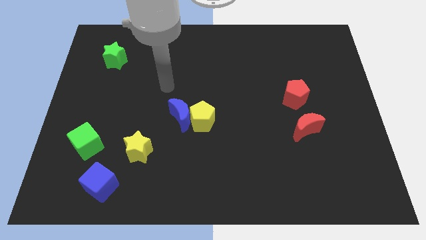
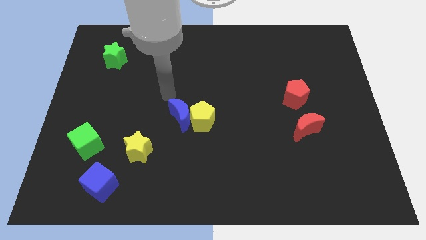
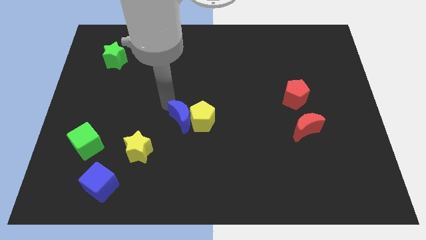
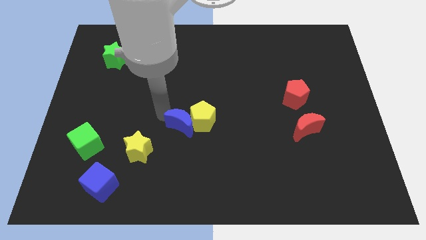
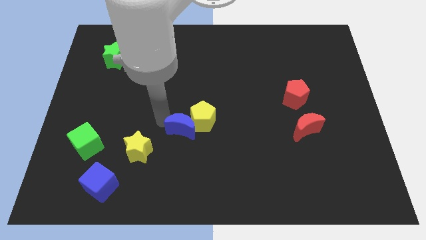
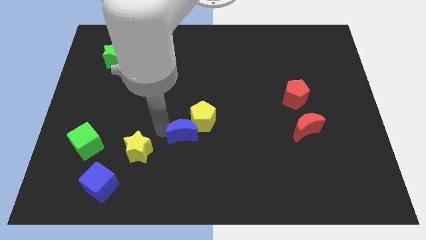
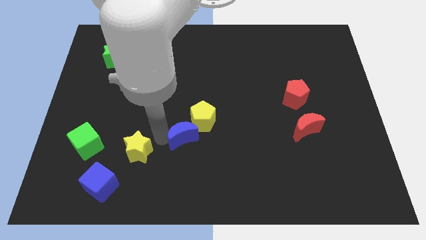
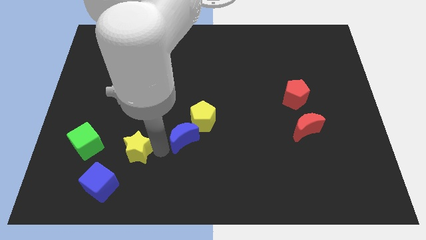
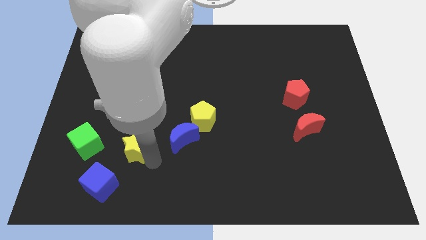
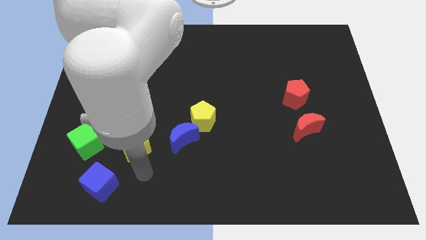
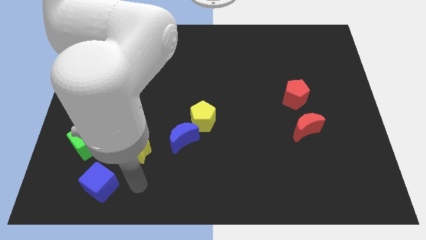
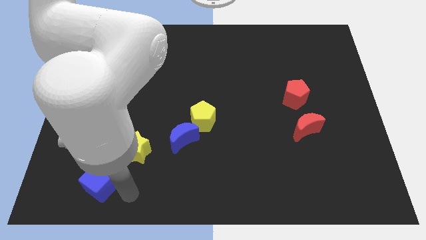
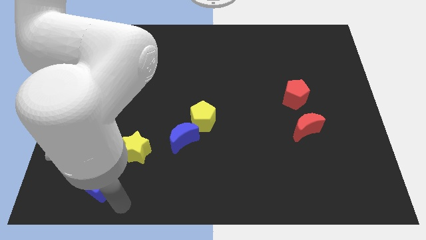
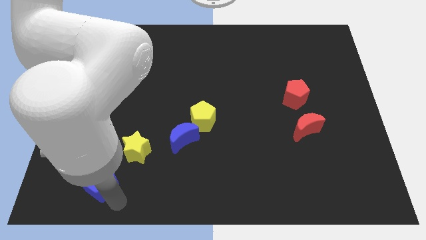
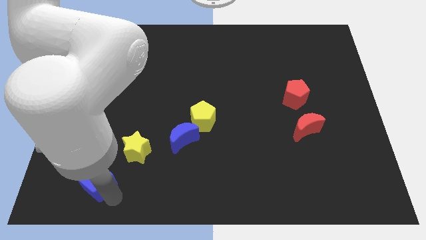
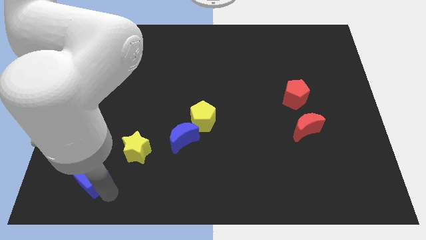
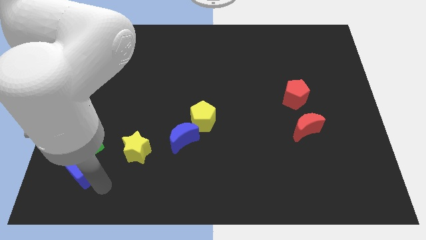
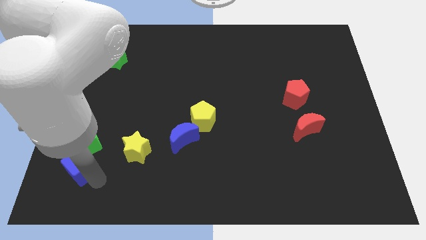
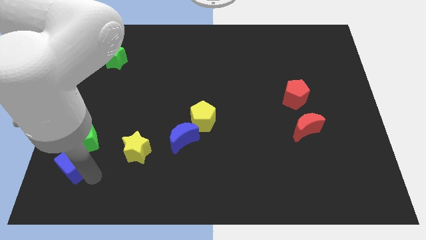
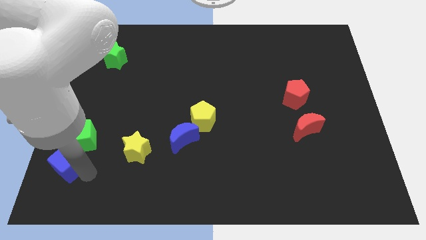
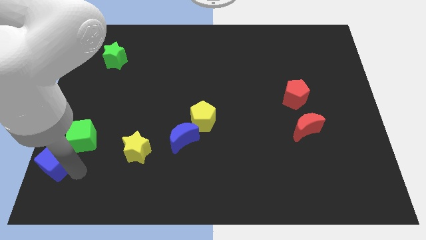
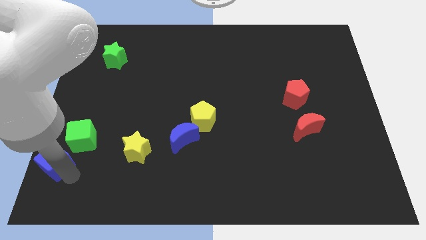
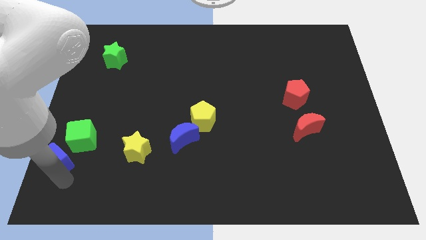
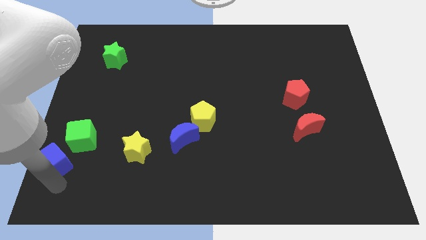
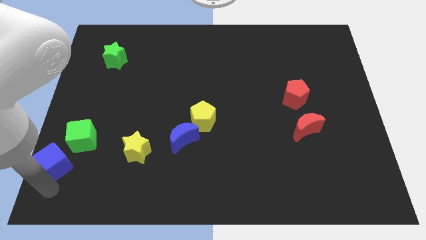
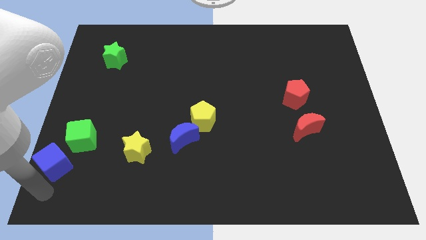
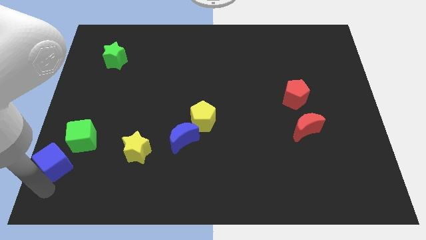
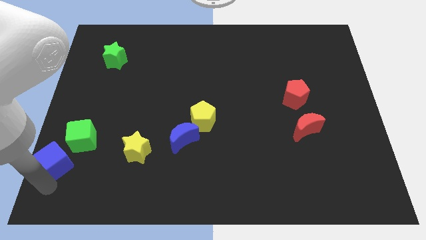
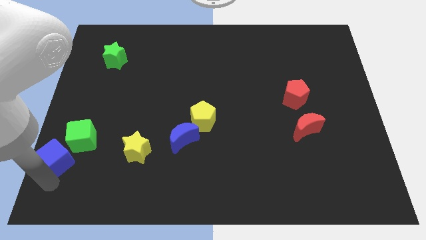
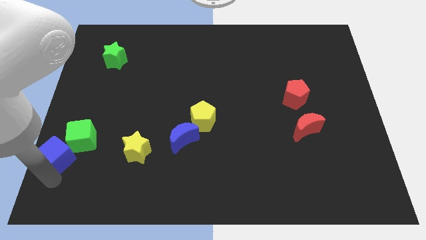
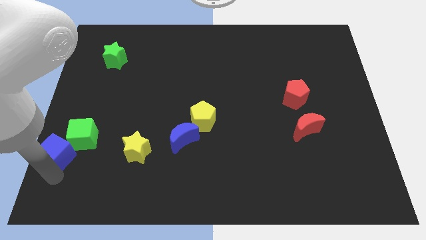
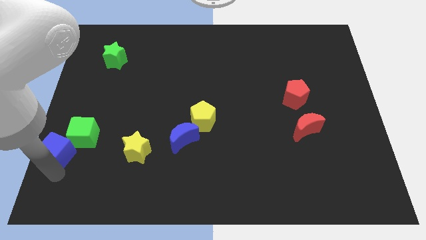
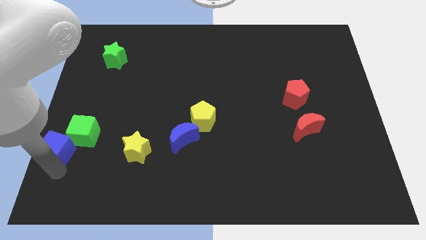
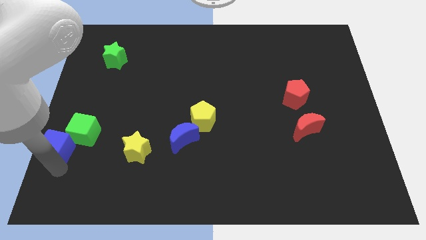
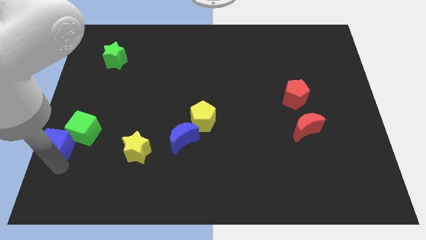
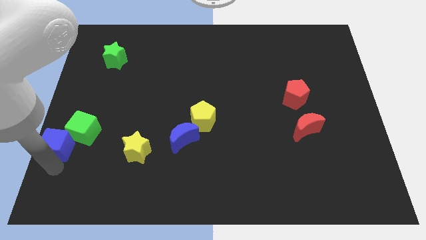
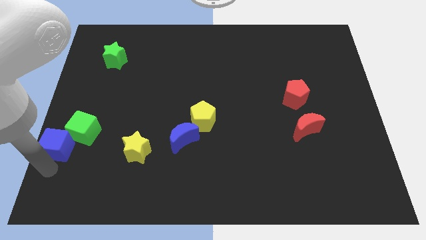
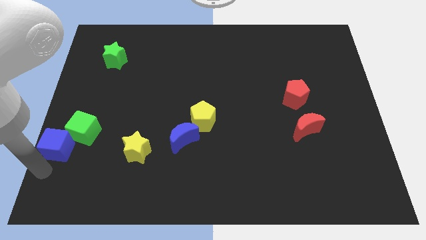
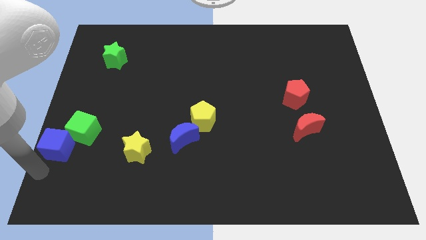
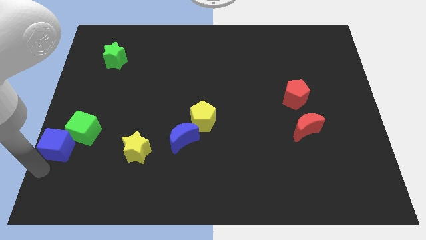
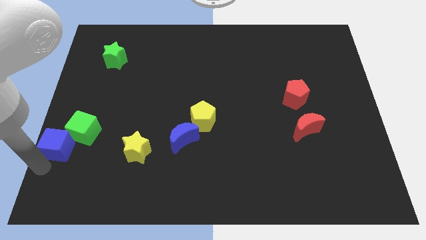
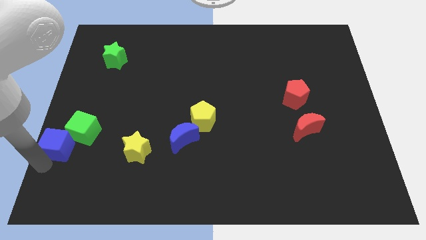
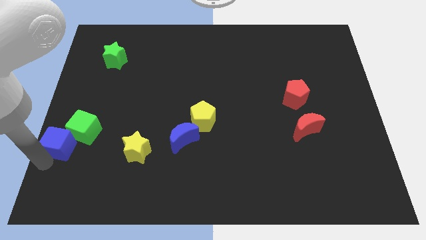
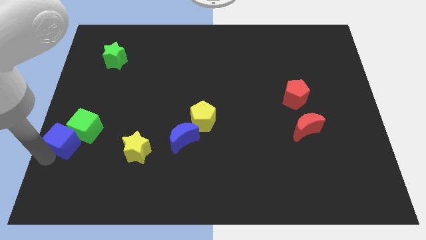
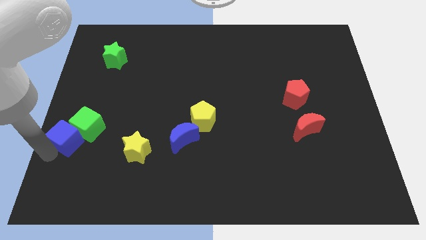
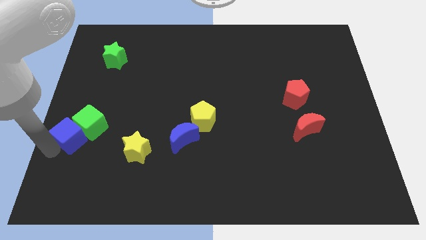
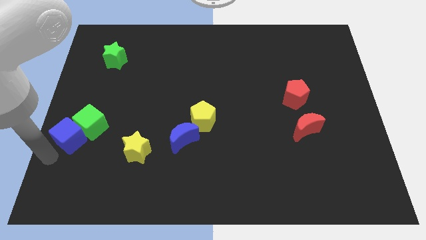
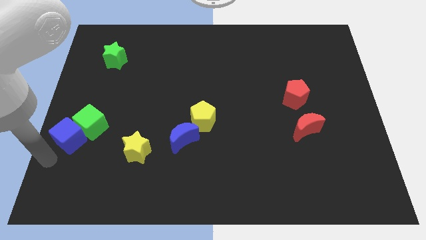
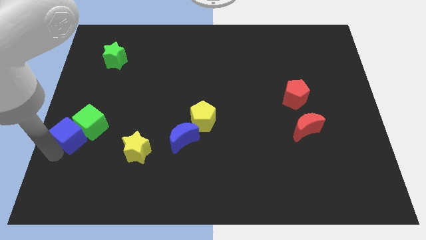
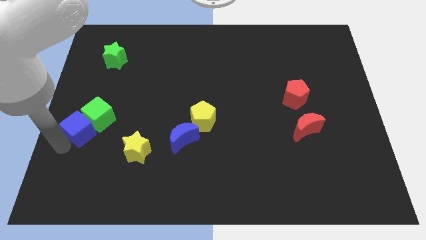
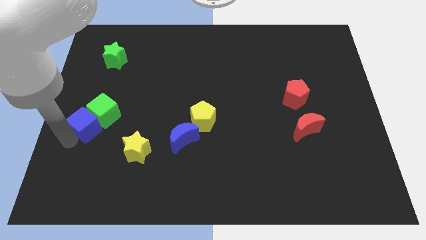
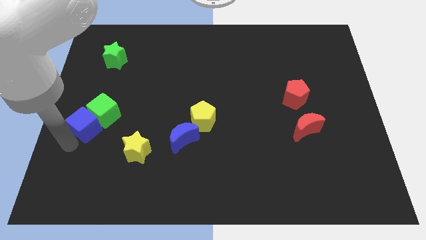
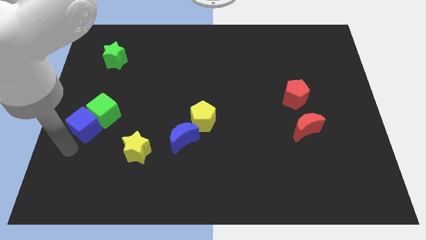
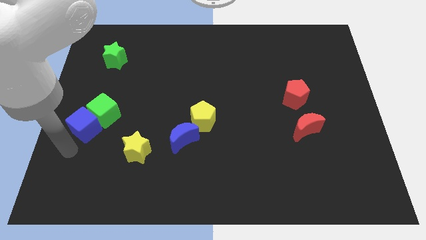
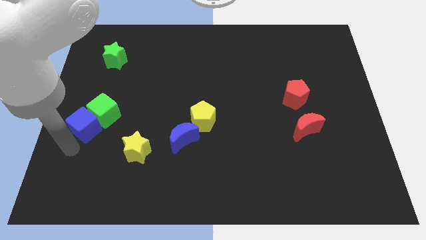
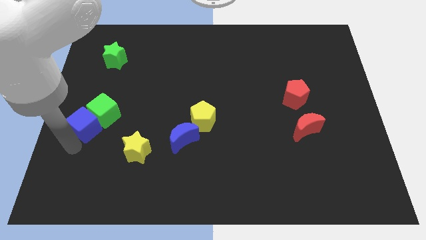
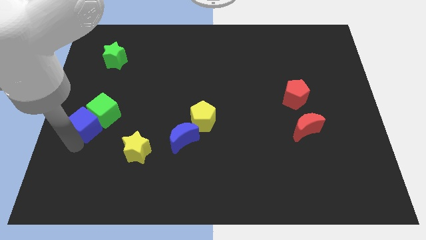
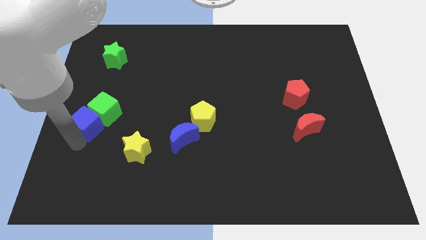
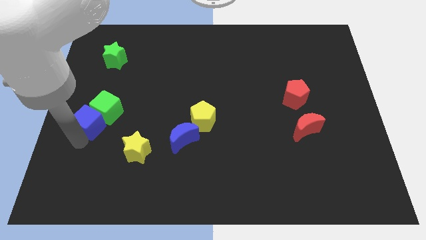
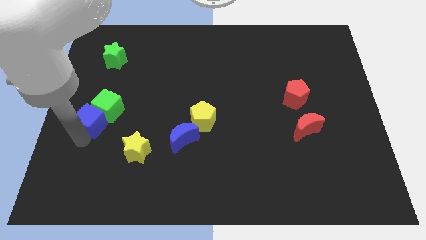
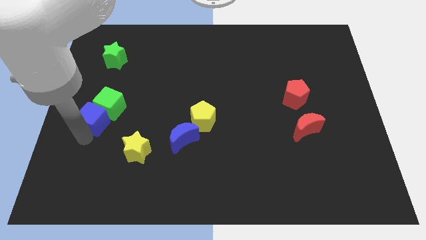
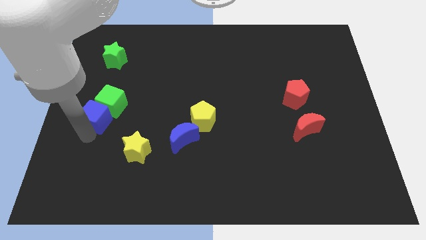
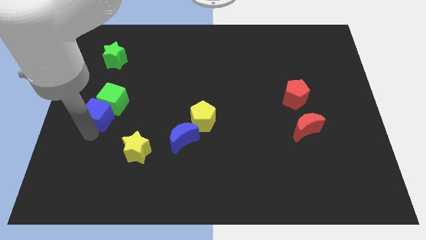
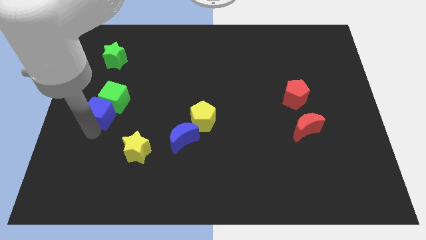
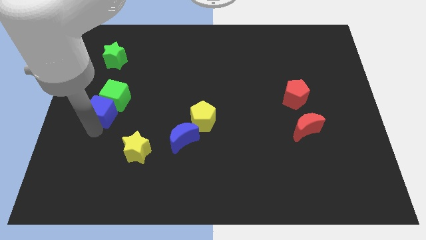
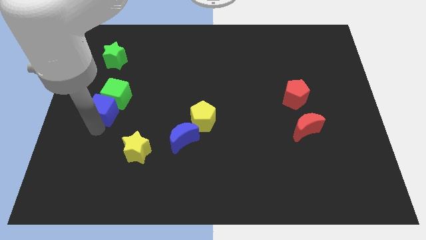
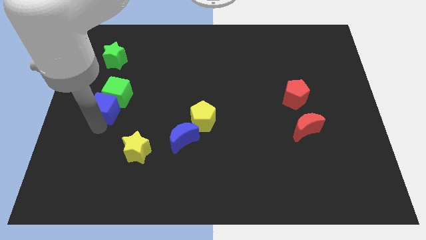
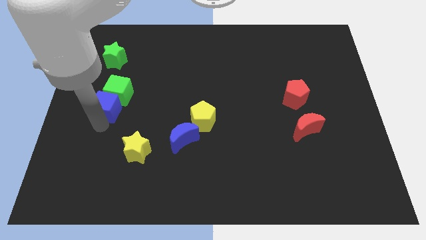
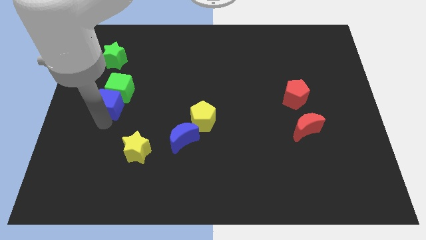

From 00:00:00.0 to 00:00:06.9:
slide the blue cube up

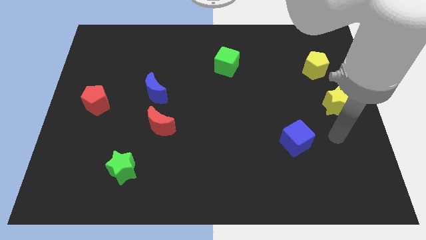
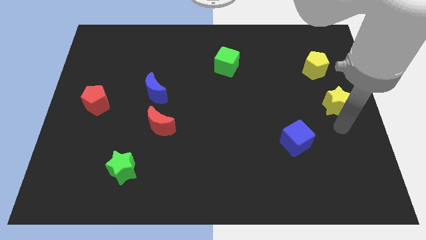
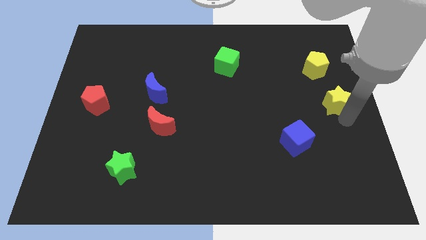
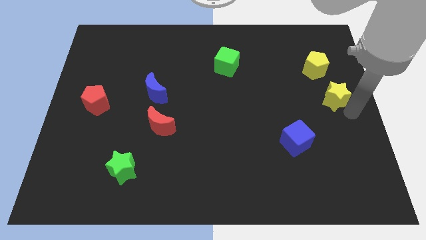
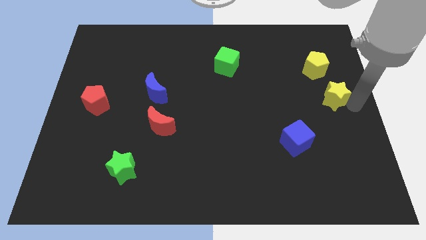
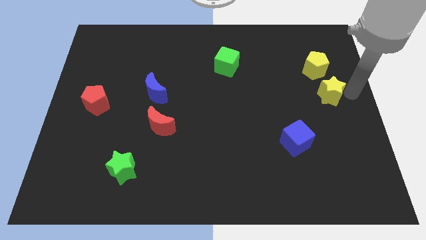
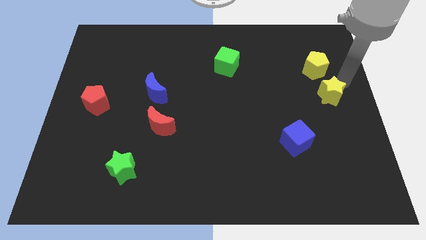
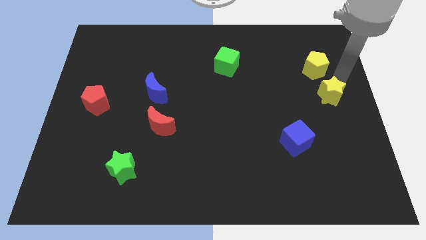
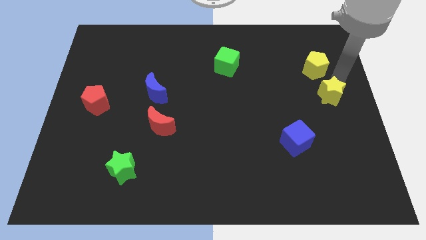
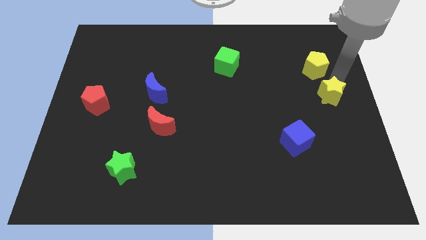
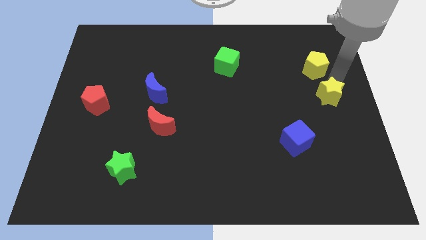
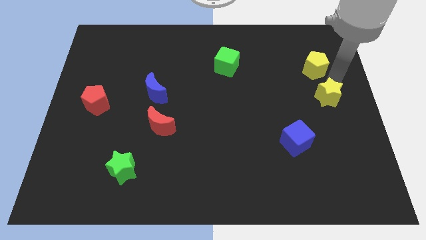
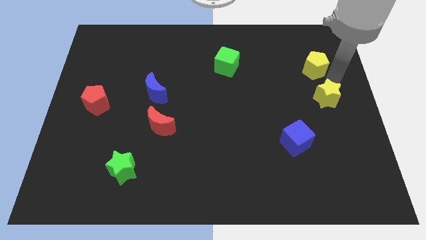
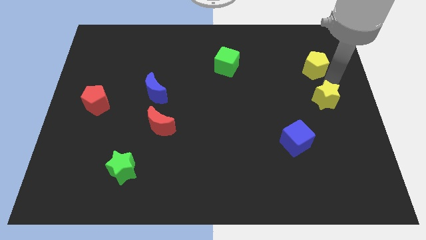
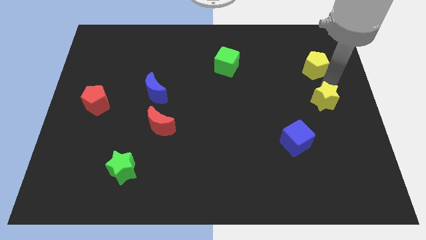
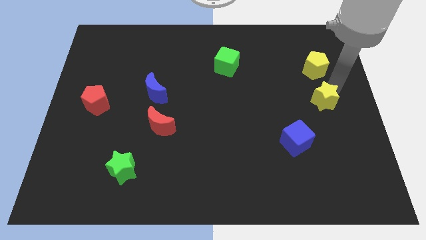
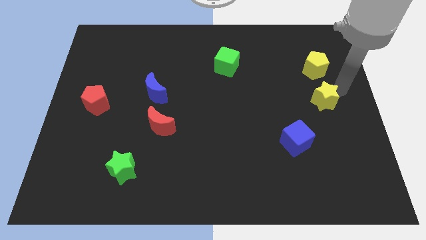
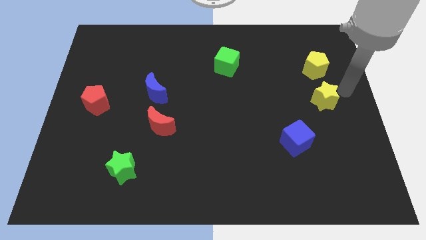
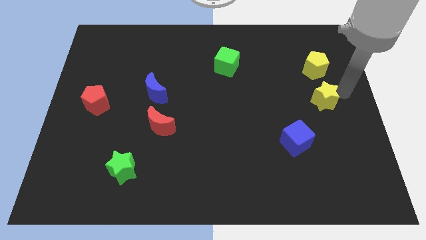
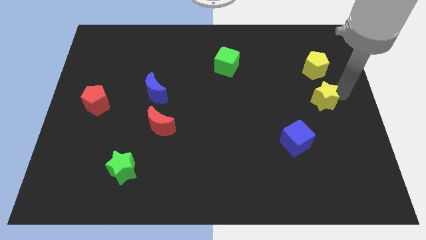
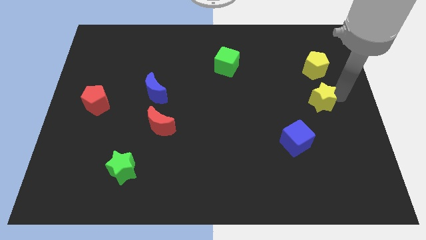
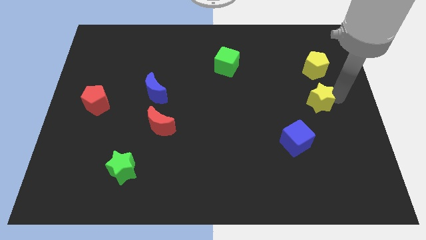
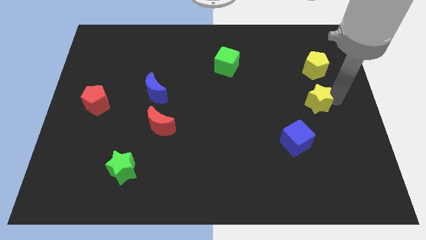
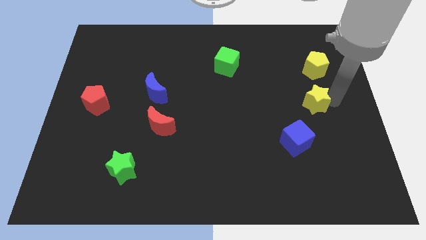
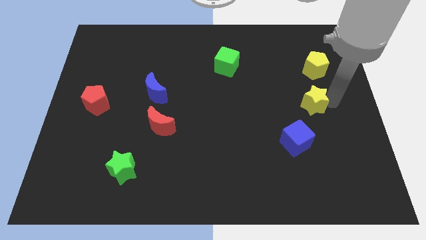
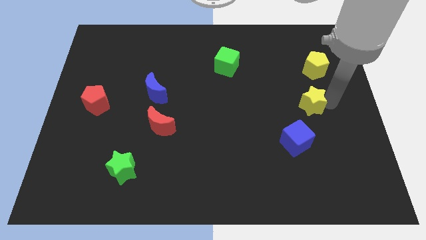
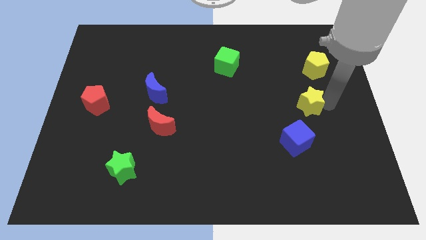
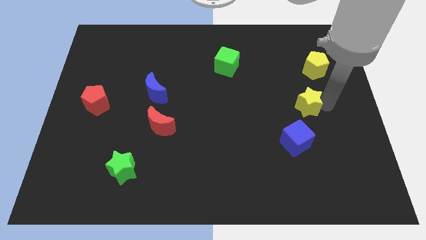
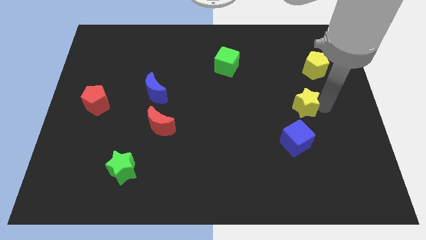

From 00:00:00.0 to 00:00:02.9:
slightly move the yellow star to the left
